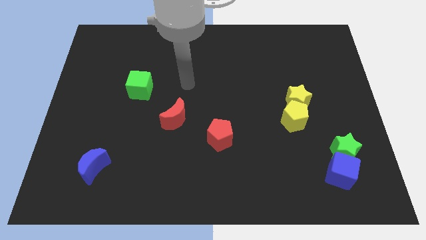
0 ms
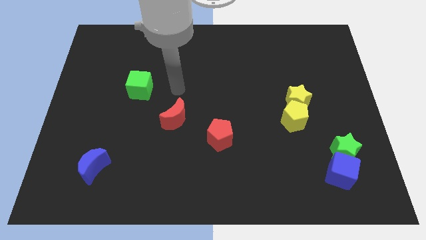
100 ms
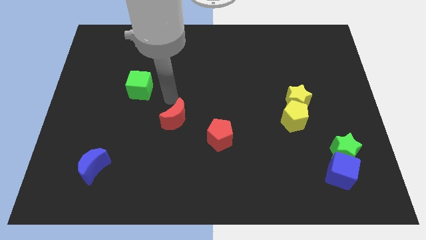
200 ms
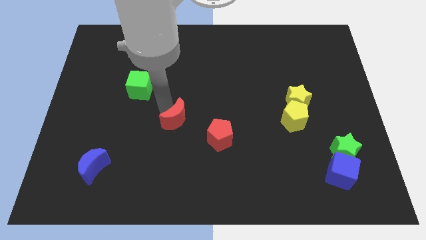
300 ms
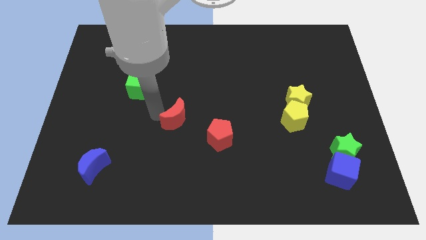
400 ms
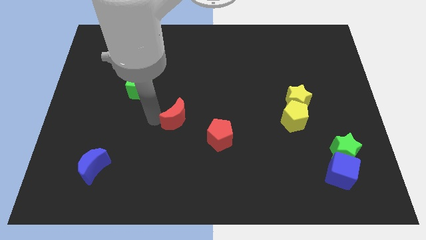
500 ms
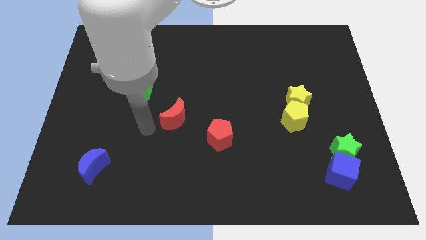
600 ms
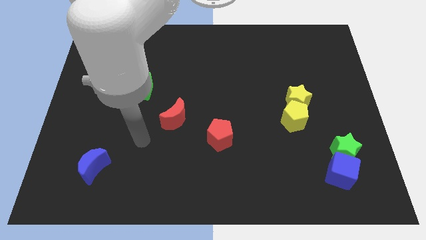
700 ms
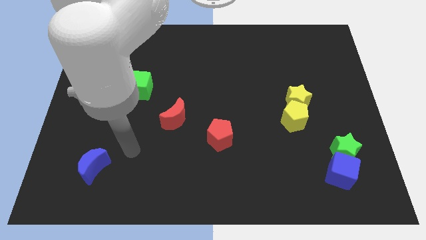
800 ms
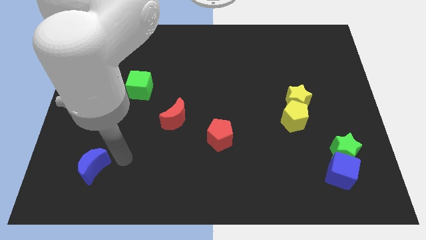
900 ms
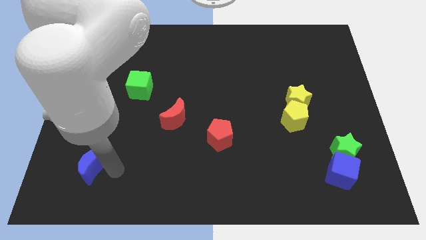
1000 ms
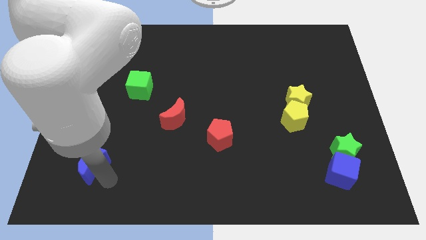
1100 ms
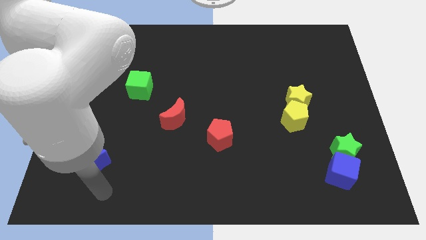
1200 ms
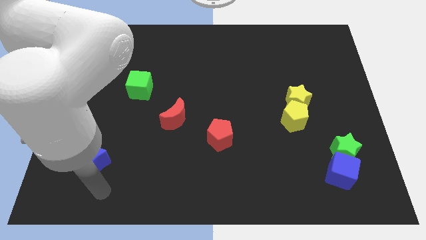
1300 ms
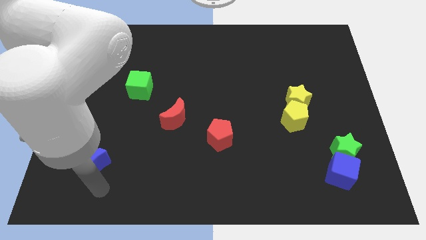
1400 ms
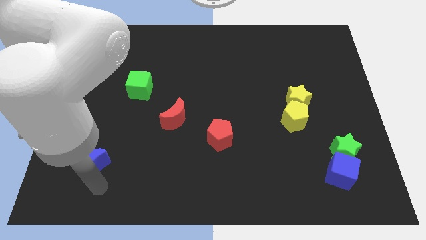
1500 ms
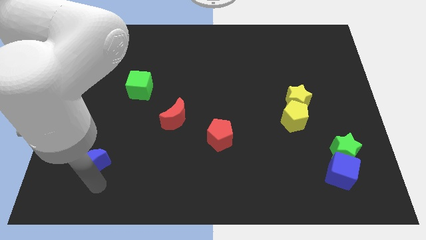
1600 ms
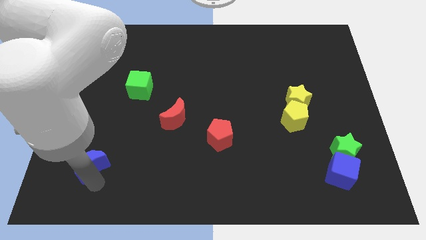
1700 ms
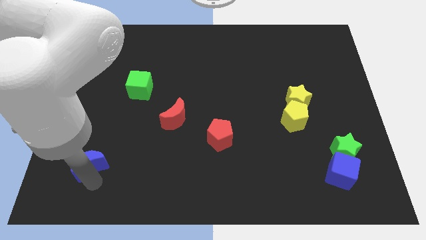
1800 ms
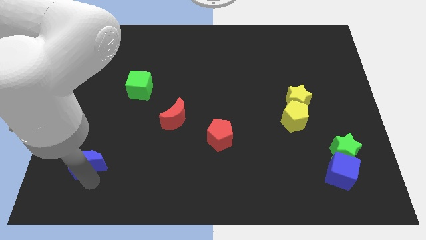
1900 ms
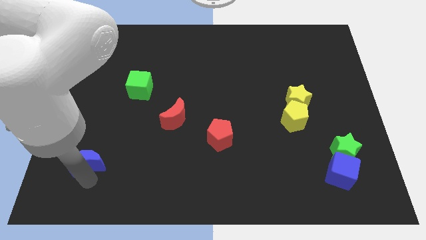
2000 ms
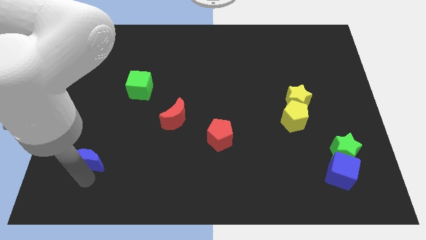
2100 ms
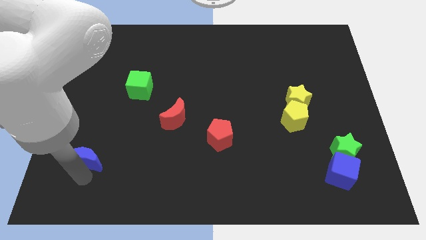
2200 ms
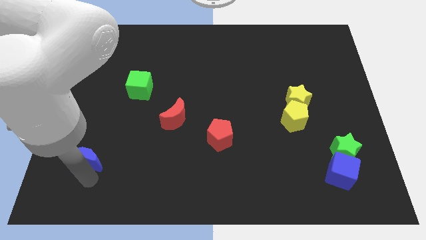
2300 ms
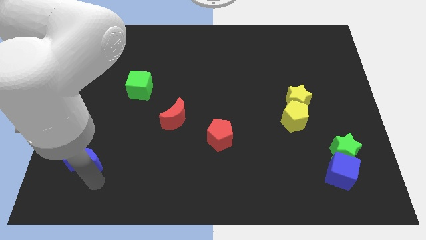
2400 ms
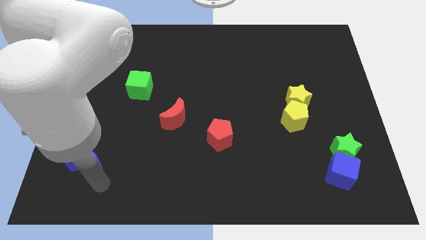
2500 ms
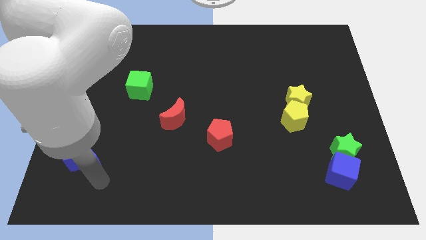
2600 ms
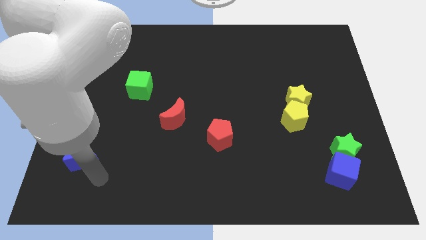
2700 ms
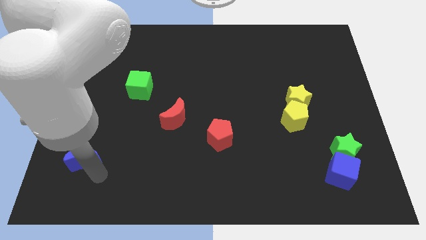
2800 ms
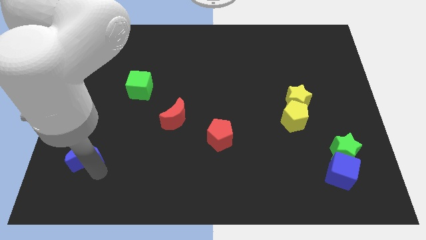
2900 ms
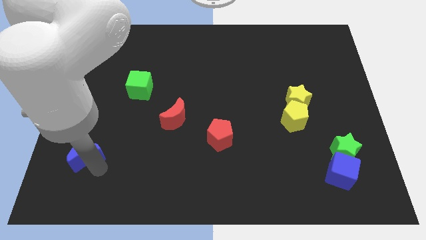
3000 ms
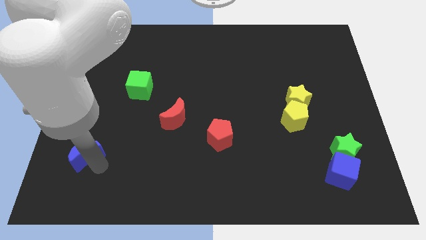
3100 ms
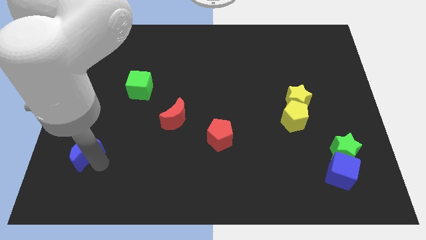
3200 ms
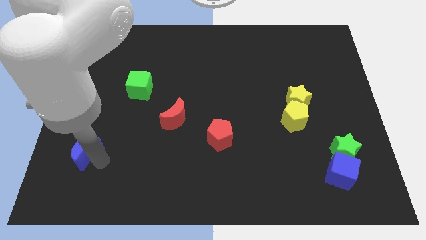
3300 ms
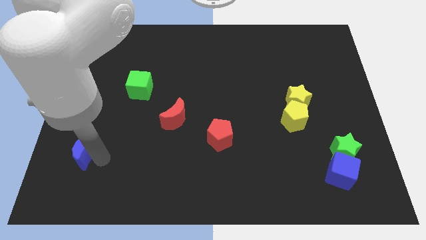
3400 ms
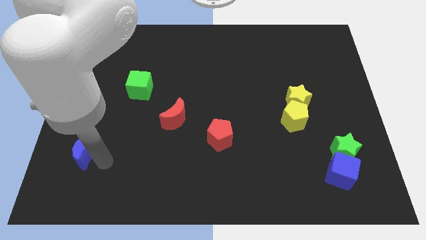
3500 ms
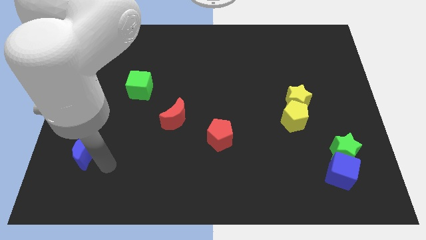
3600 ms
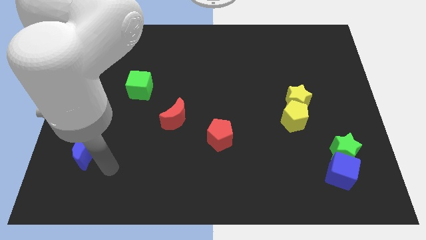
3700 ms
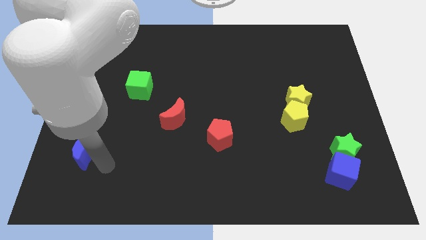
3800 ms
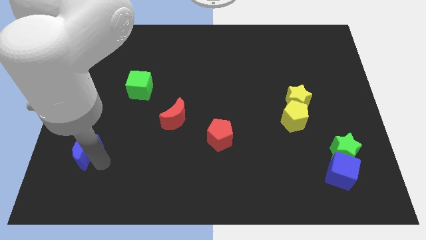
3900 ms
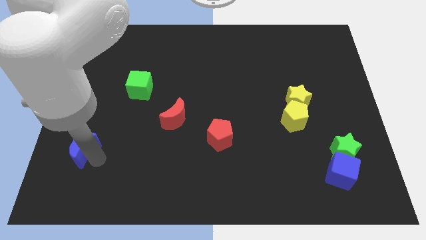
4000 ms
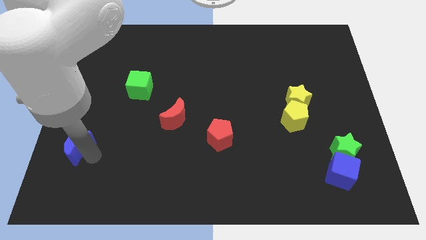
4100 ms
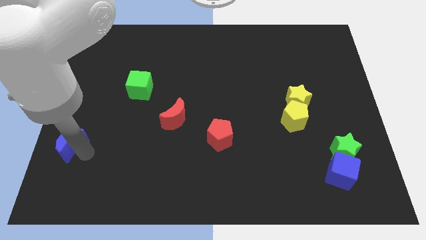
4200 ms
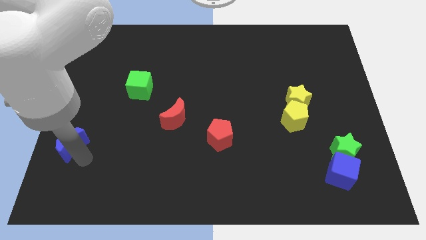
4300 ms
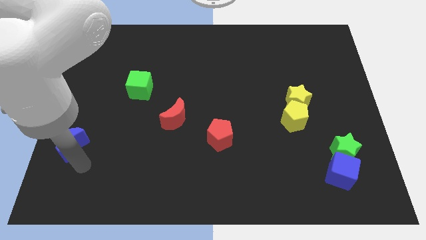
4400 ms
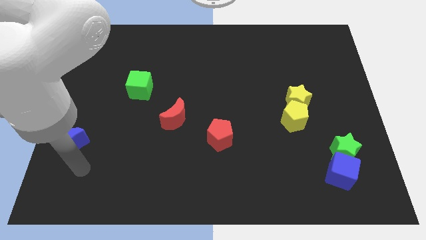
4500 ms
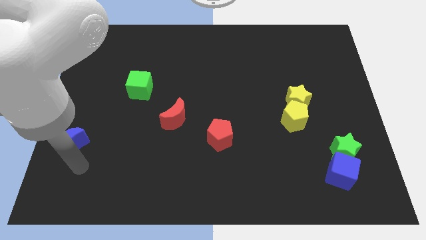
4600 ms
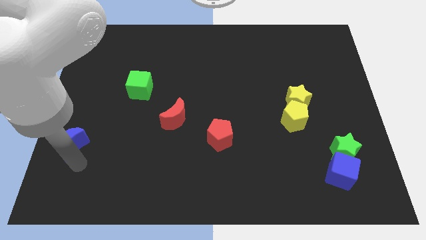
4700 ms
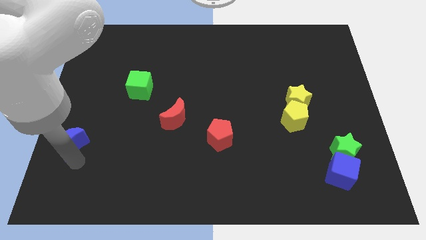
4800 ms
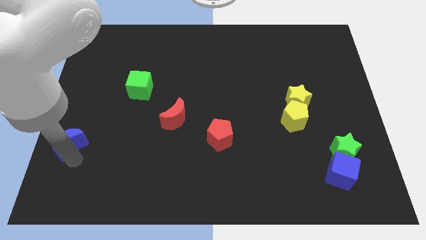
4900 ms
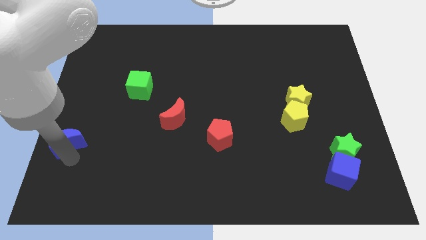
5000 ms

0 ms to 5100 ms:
put the blue moon to the left side

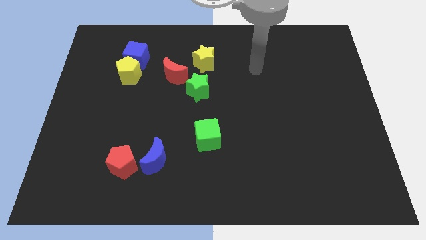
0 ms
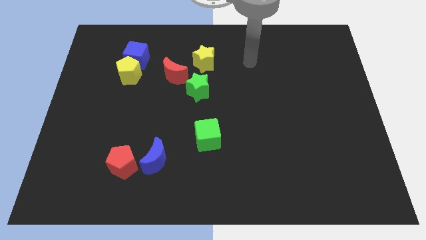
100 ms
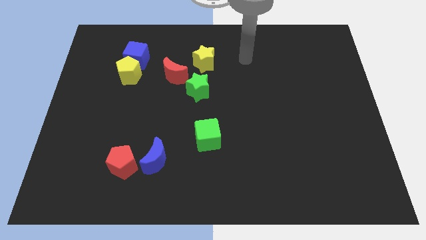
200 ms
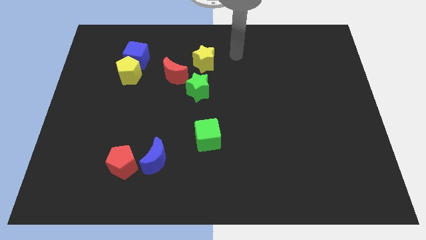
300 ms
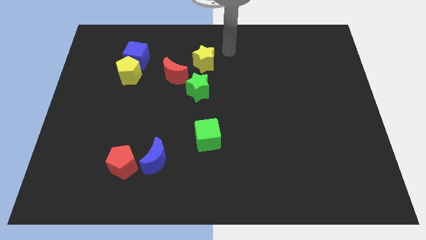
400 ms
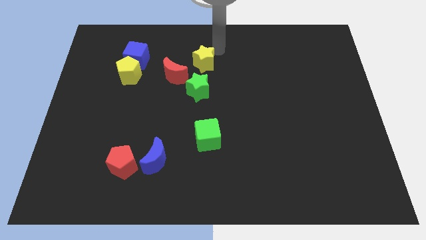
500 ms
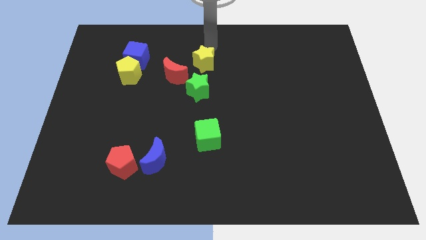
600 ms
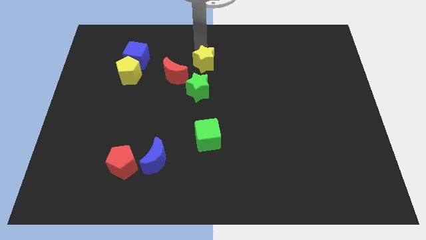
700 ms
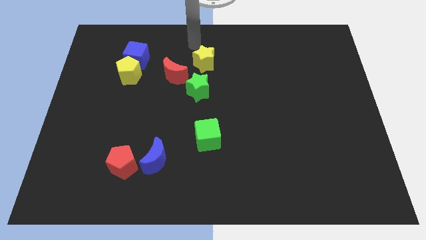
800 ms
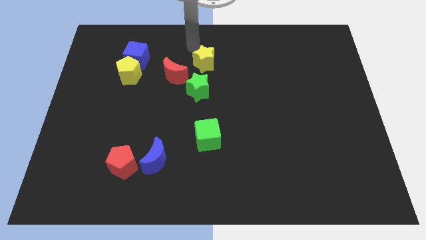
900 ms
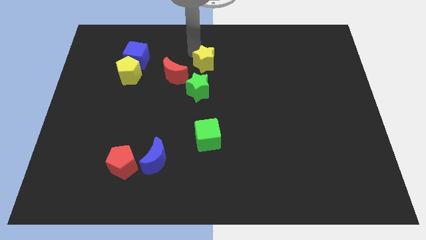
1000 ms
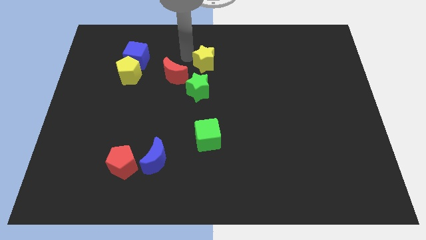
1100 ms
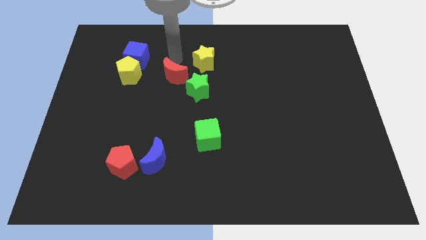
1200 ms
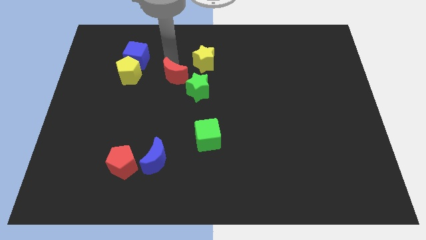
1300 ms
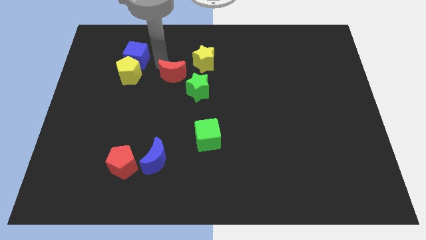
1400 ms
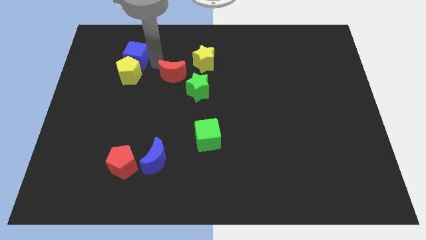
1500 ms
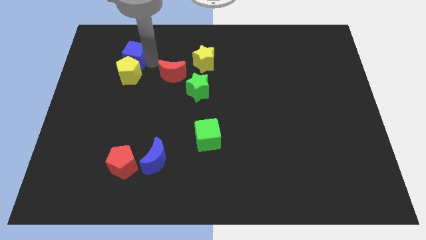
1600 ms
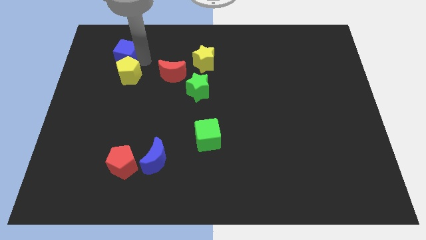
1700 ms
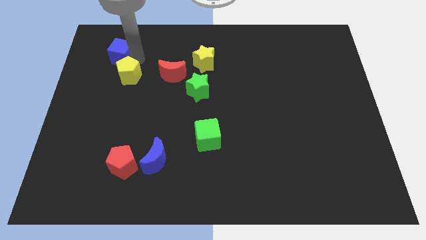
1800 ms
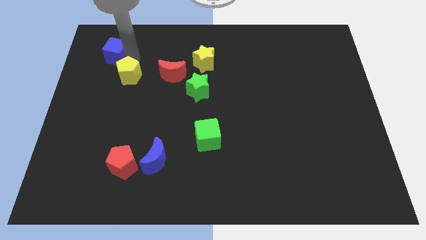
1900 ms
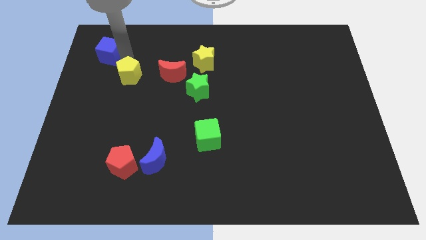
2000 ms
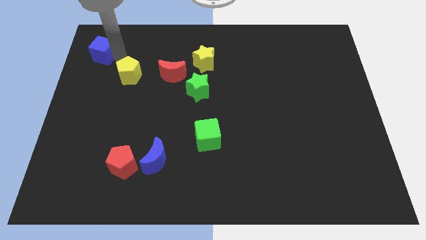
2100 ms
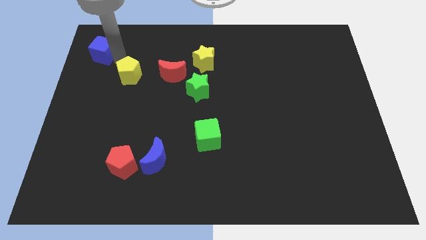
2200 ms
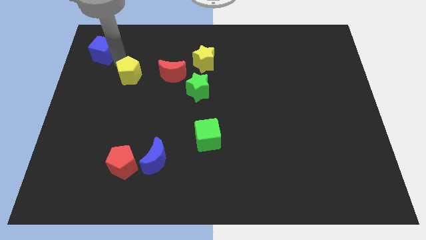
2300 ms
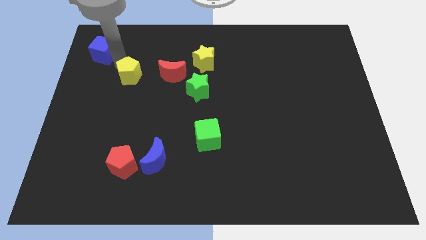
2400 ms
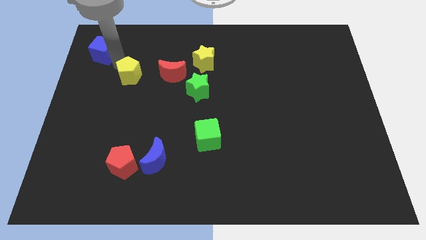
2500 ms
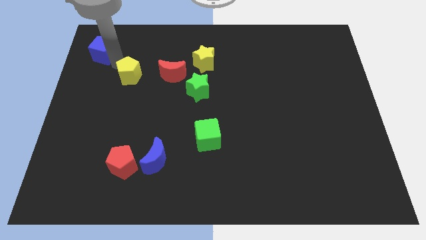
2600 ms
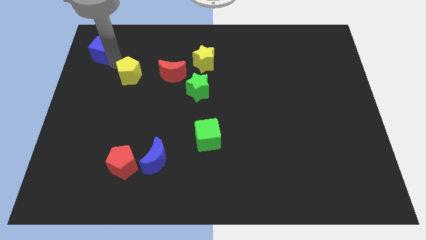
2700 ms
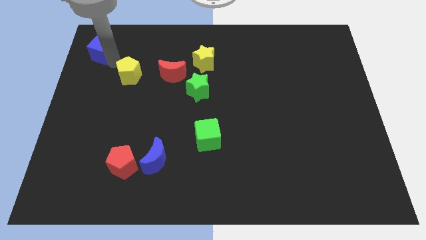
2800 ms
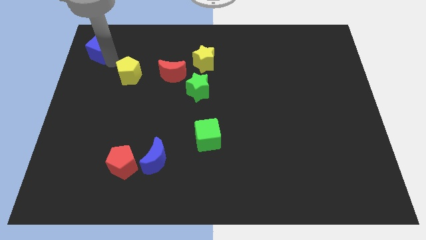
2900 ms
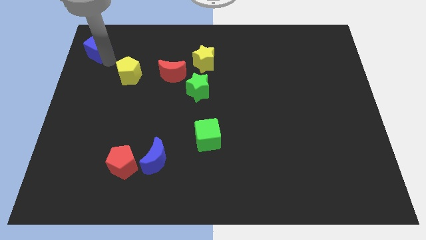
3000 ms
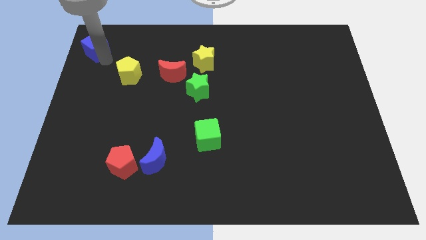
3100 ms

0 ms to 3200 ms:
push the blue cube to the upper left corner
